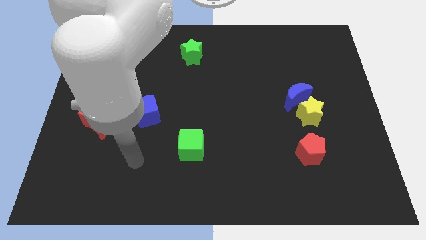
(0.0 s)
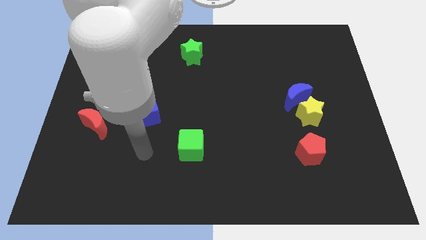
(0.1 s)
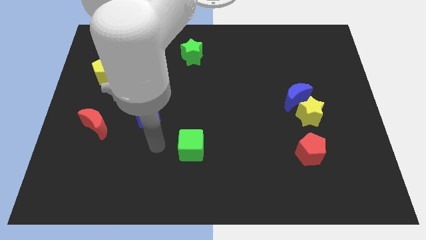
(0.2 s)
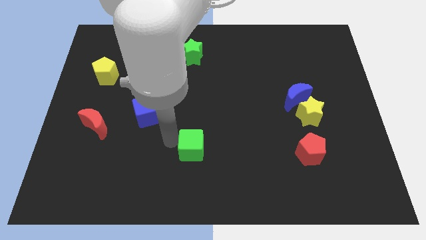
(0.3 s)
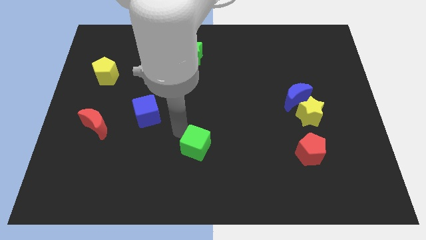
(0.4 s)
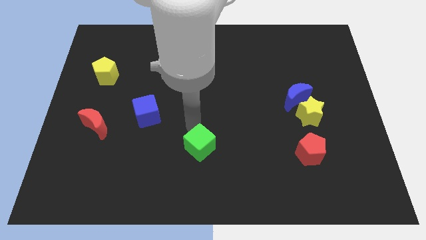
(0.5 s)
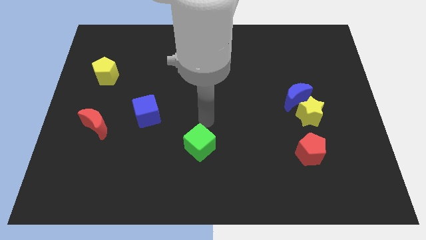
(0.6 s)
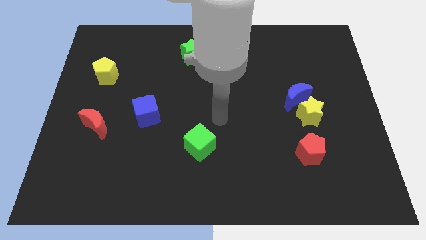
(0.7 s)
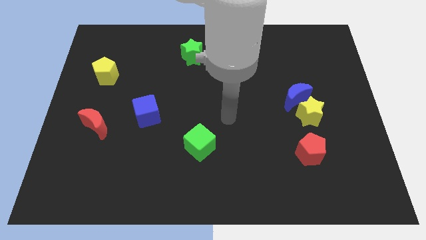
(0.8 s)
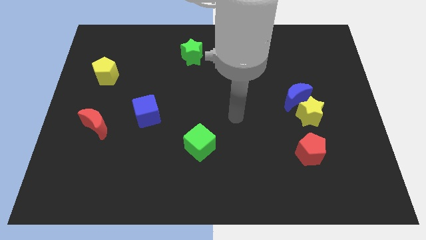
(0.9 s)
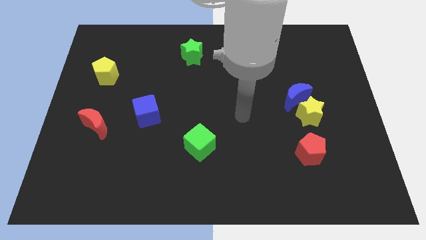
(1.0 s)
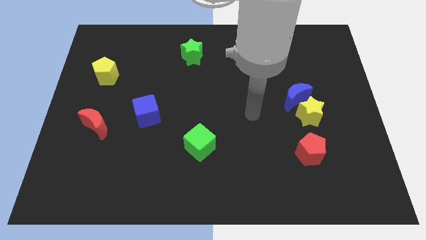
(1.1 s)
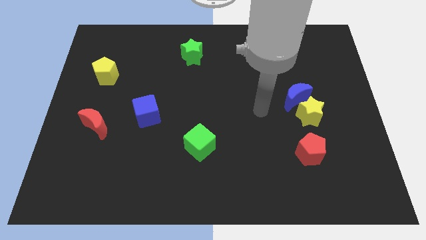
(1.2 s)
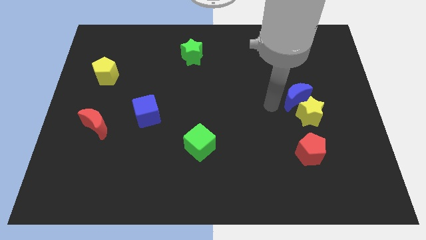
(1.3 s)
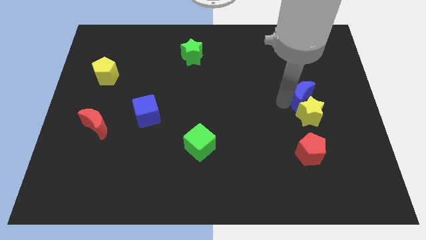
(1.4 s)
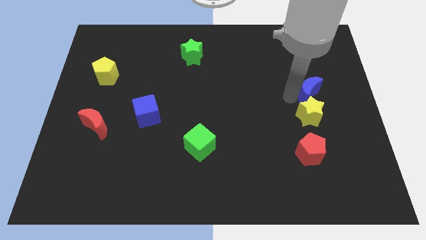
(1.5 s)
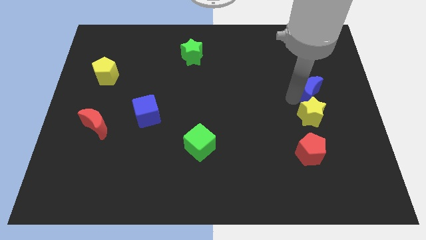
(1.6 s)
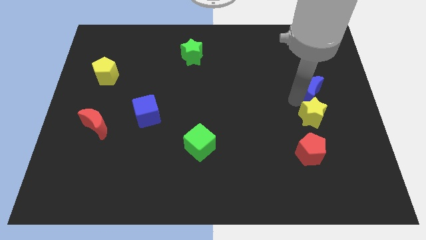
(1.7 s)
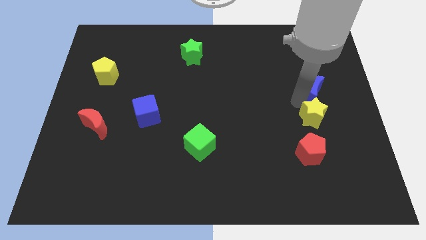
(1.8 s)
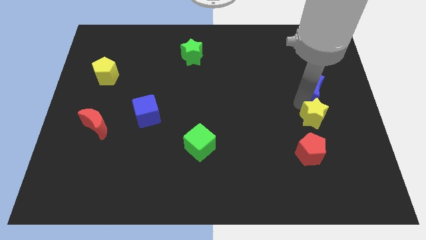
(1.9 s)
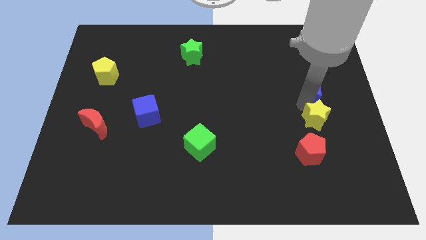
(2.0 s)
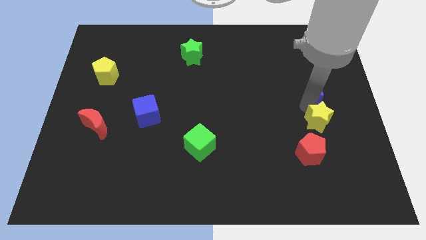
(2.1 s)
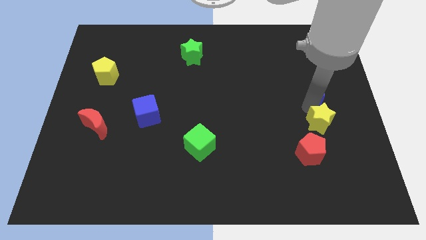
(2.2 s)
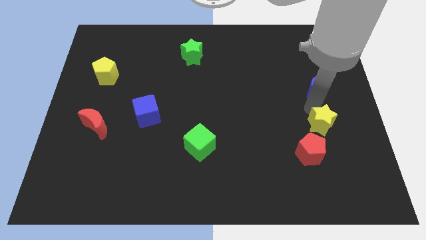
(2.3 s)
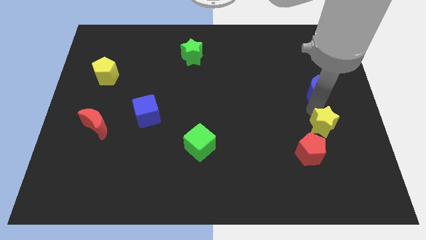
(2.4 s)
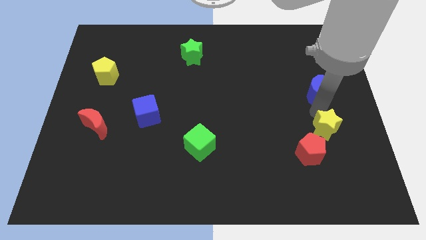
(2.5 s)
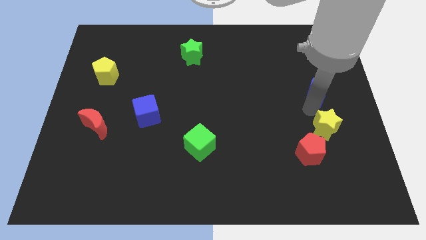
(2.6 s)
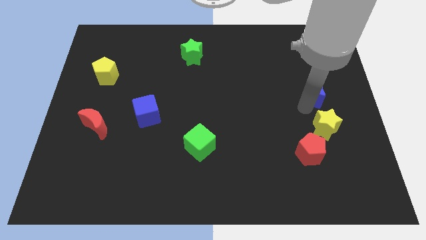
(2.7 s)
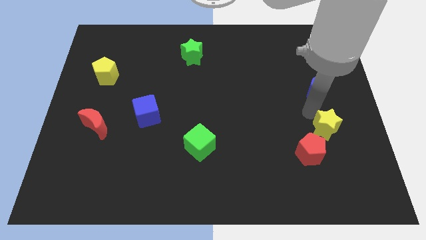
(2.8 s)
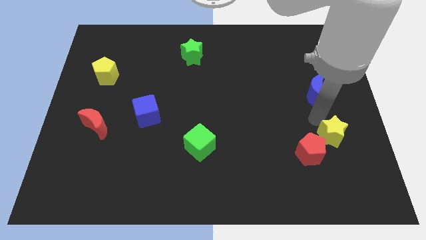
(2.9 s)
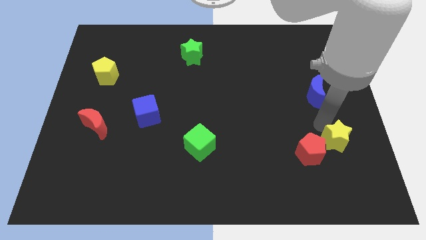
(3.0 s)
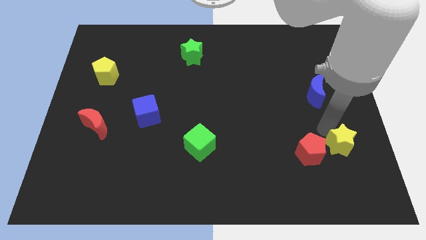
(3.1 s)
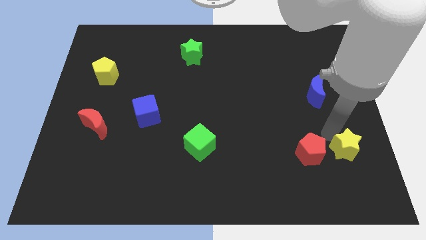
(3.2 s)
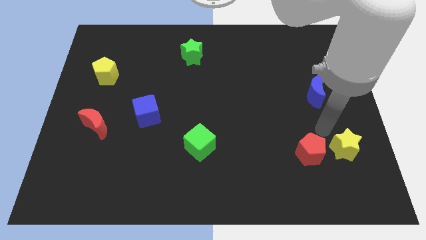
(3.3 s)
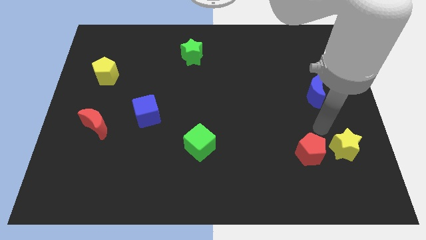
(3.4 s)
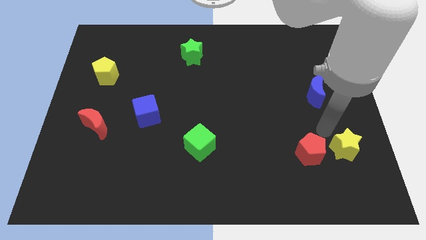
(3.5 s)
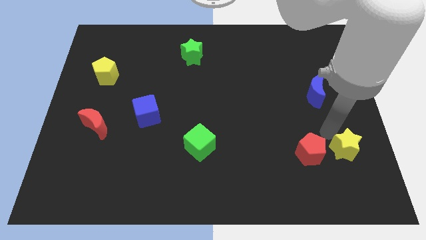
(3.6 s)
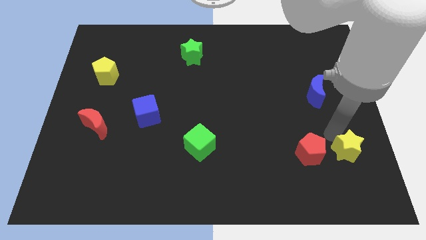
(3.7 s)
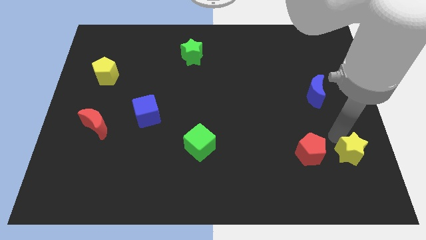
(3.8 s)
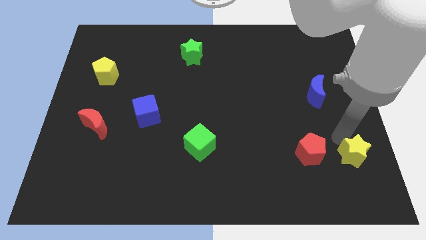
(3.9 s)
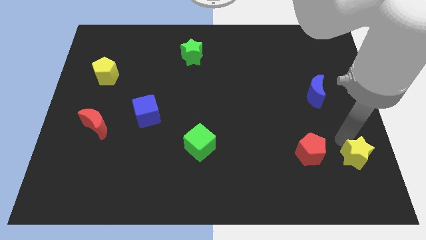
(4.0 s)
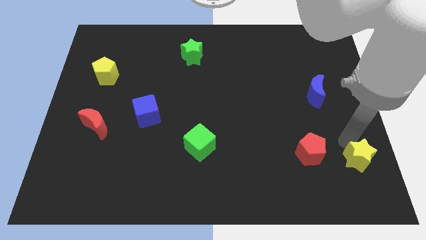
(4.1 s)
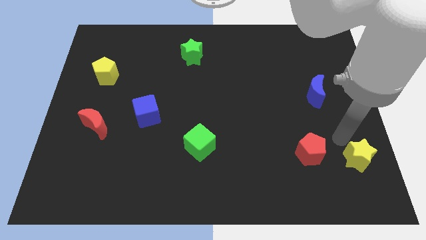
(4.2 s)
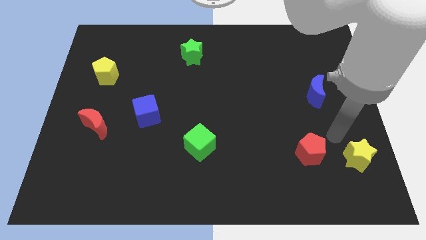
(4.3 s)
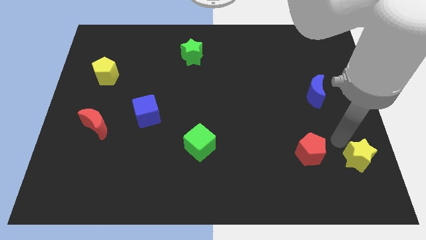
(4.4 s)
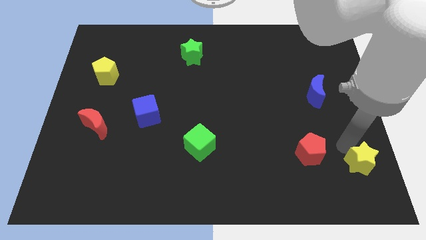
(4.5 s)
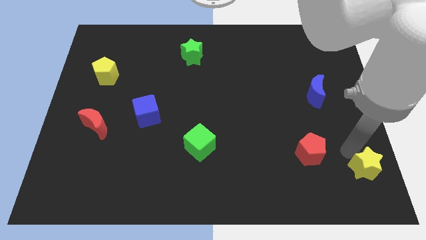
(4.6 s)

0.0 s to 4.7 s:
push the yellow star to the lower right corner

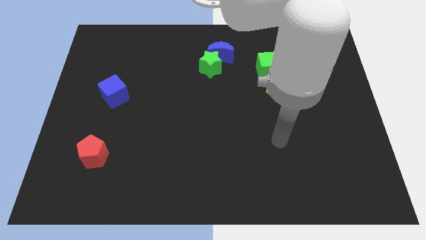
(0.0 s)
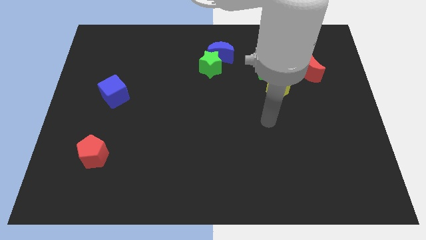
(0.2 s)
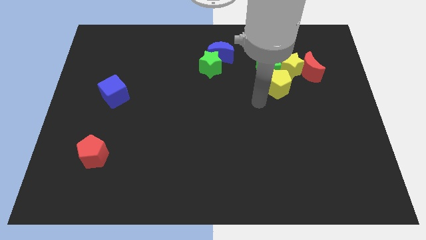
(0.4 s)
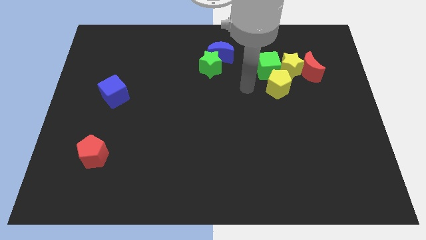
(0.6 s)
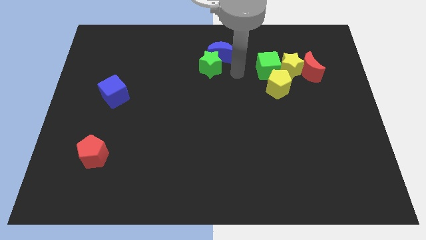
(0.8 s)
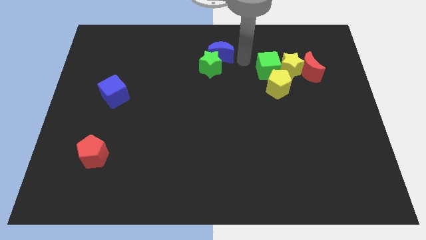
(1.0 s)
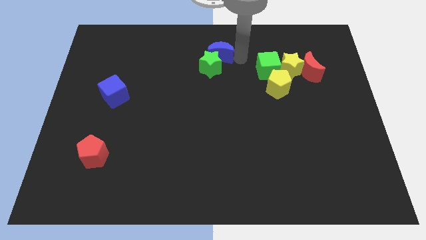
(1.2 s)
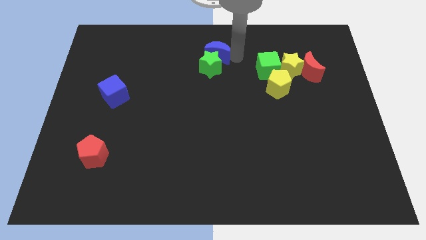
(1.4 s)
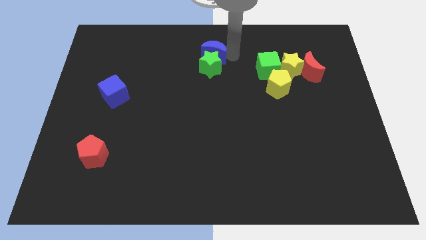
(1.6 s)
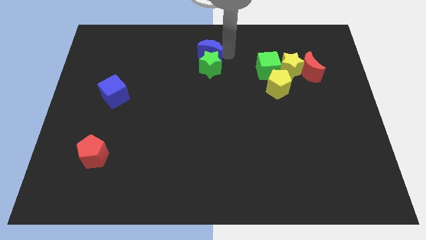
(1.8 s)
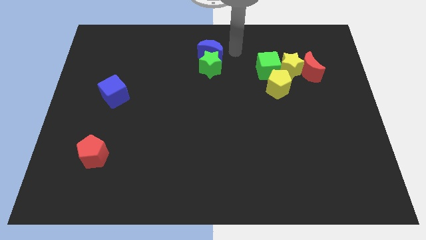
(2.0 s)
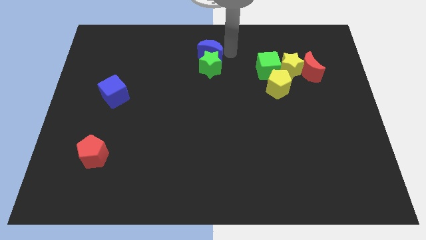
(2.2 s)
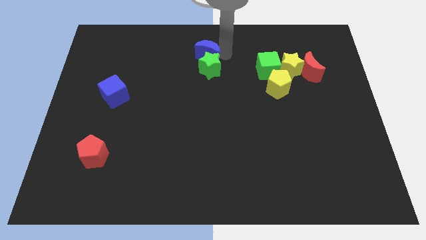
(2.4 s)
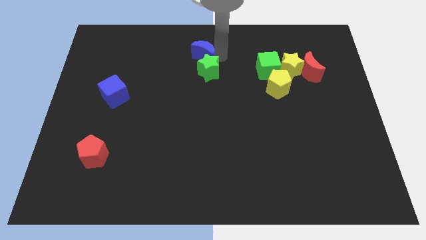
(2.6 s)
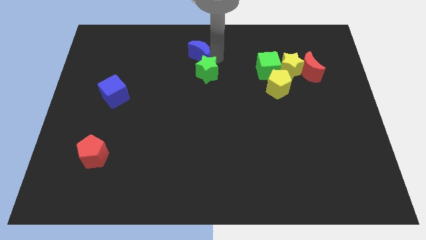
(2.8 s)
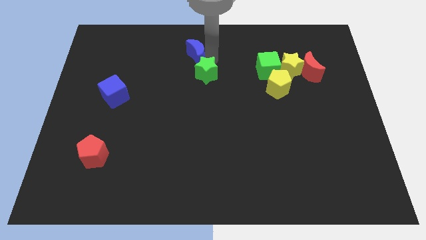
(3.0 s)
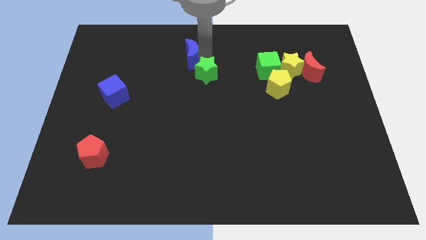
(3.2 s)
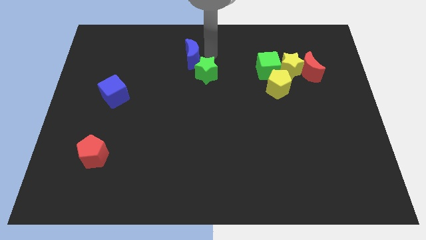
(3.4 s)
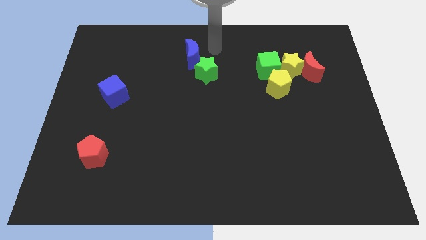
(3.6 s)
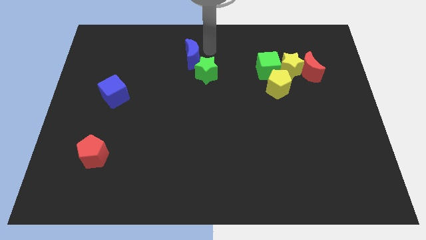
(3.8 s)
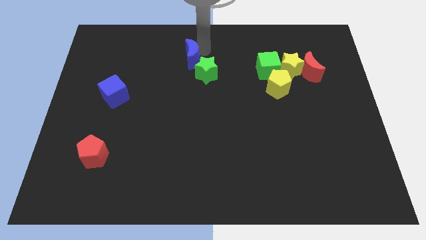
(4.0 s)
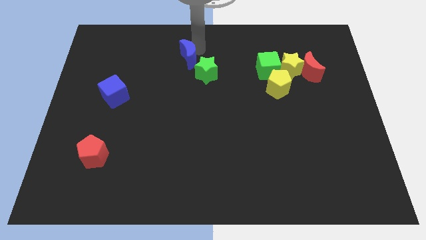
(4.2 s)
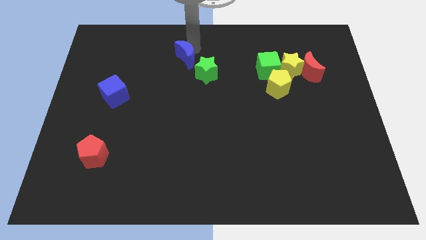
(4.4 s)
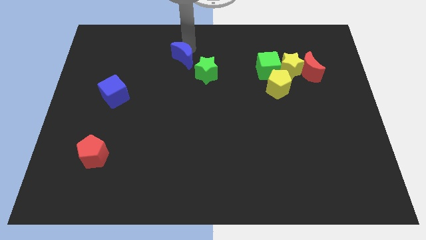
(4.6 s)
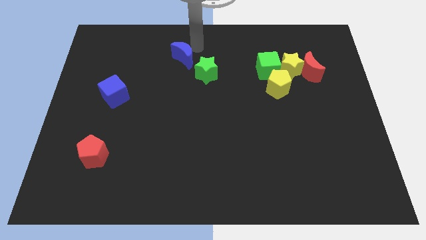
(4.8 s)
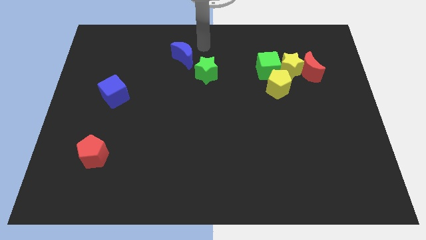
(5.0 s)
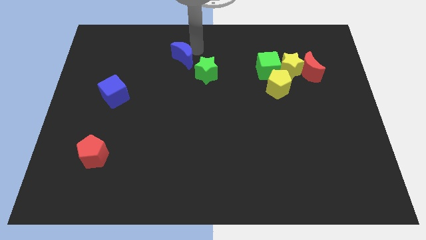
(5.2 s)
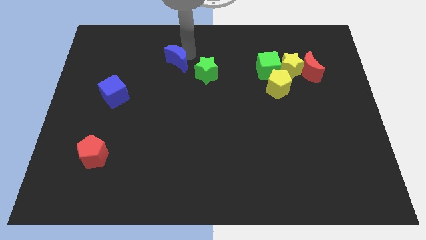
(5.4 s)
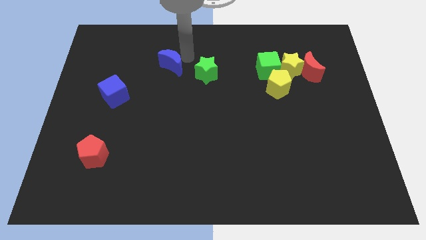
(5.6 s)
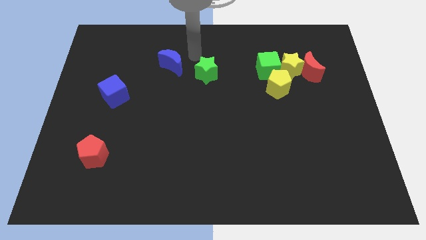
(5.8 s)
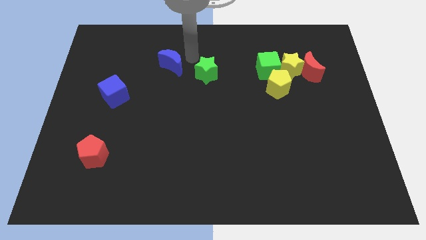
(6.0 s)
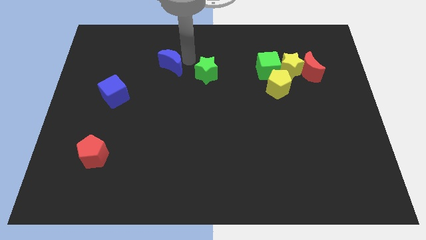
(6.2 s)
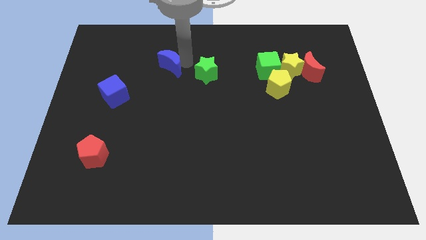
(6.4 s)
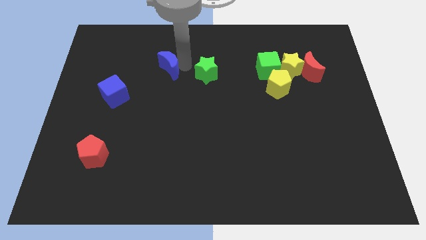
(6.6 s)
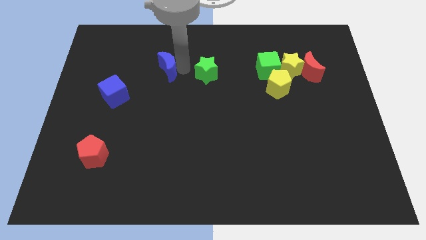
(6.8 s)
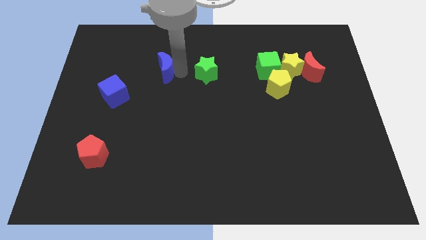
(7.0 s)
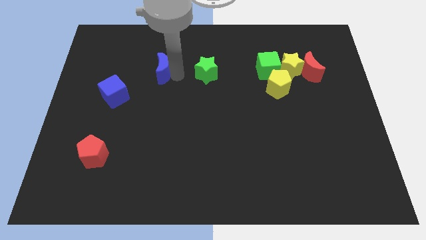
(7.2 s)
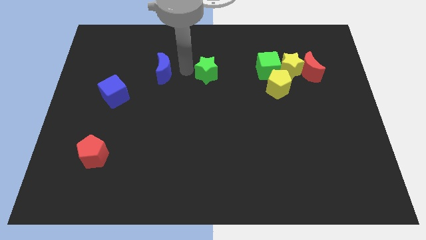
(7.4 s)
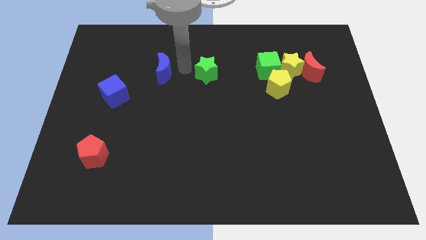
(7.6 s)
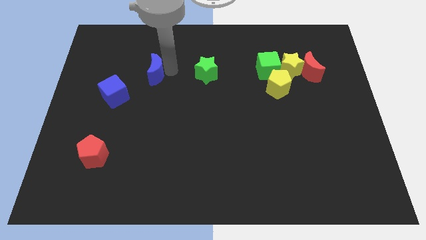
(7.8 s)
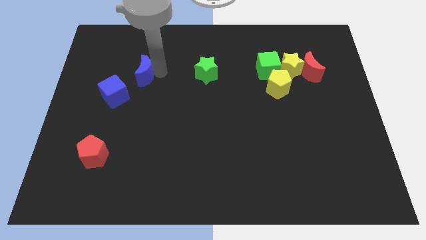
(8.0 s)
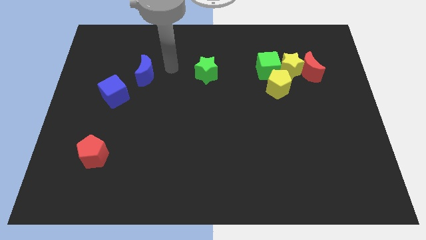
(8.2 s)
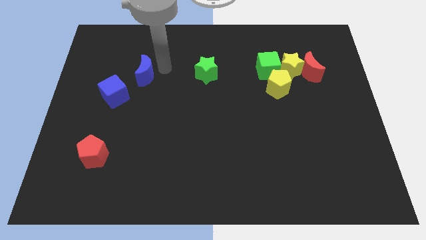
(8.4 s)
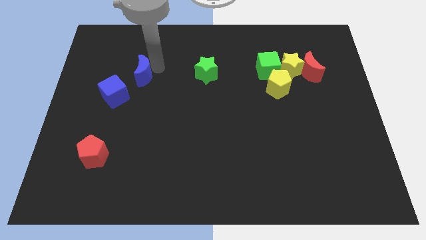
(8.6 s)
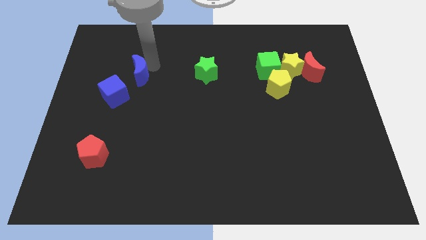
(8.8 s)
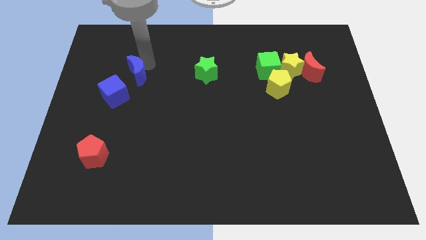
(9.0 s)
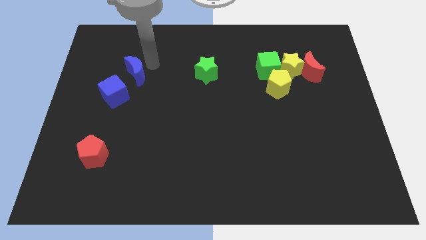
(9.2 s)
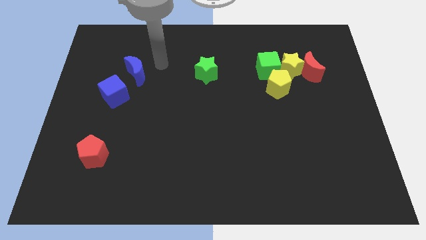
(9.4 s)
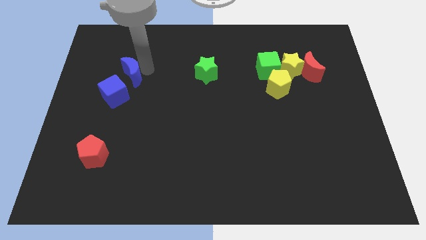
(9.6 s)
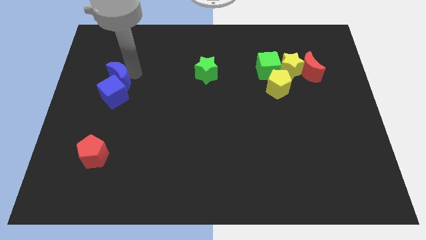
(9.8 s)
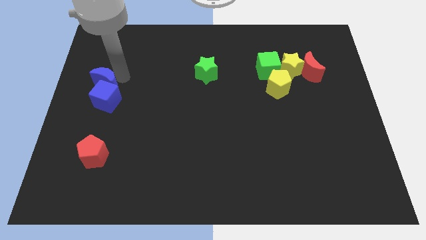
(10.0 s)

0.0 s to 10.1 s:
put the blue moon to the left side
